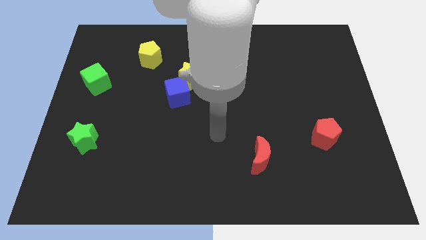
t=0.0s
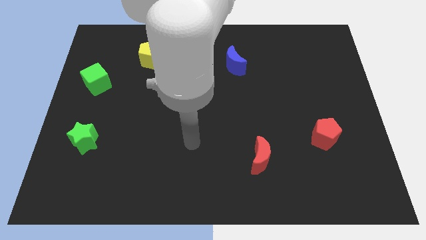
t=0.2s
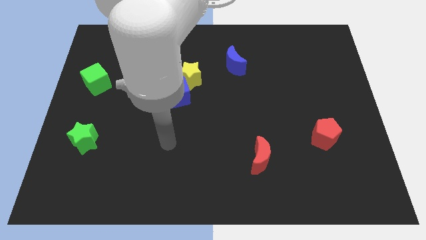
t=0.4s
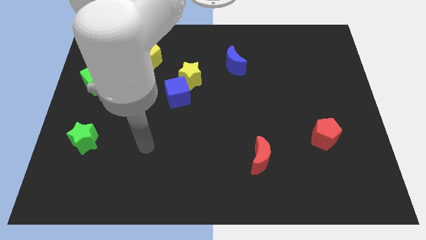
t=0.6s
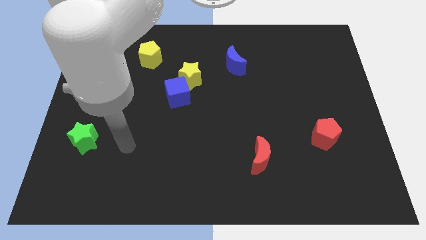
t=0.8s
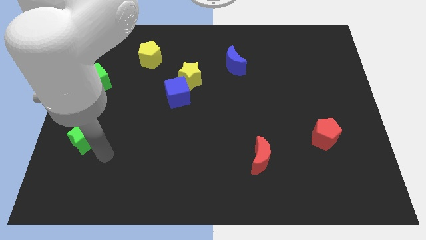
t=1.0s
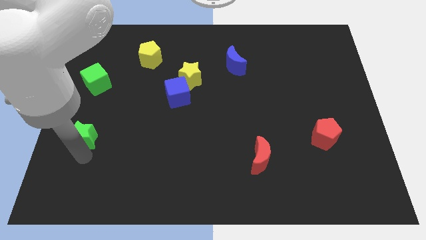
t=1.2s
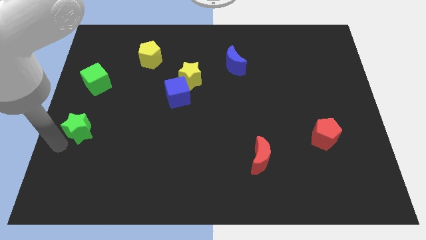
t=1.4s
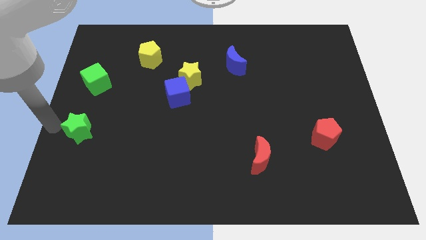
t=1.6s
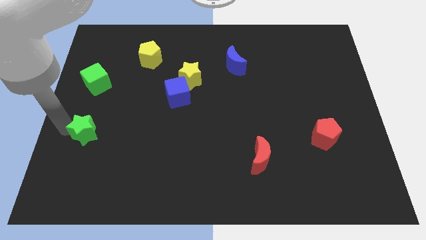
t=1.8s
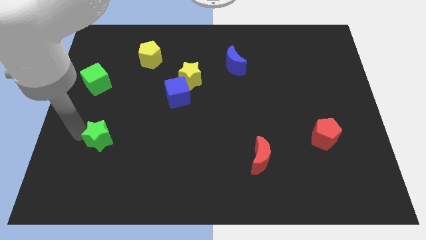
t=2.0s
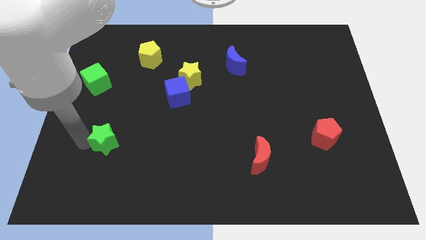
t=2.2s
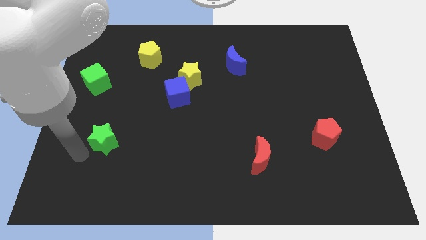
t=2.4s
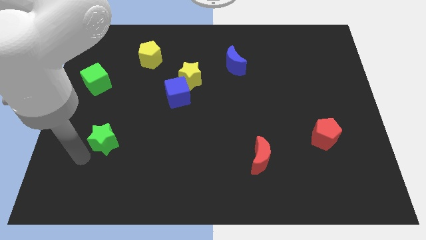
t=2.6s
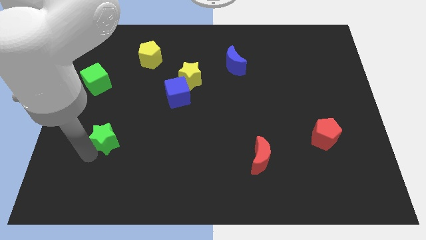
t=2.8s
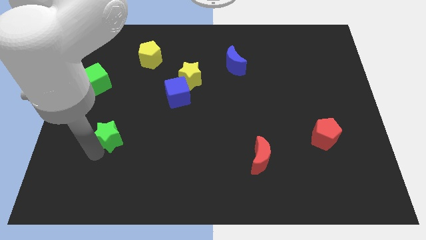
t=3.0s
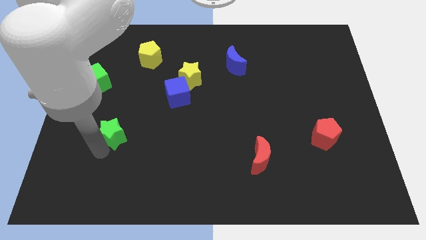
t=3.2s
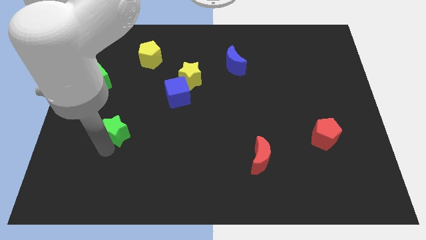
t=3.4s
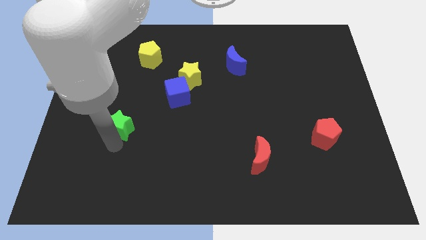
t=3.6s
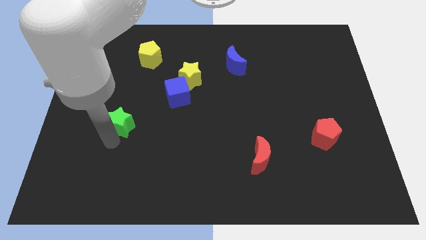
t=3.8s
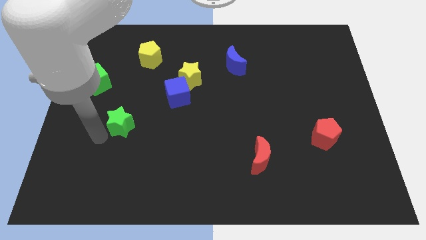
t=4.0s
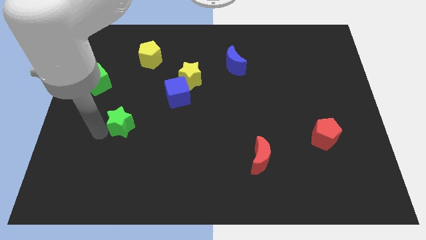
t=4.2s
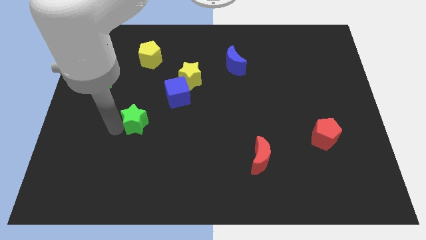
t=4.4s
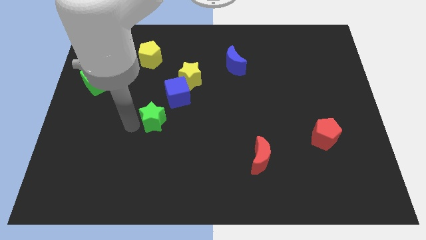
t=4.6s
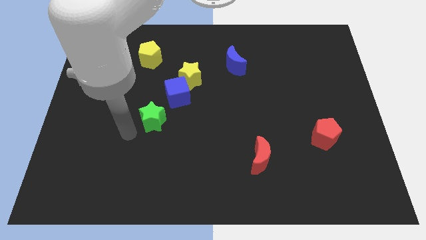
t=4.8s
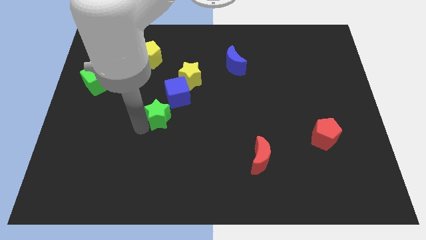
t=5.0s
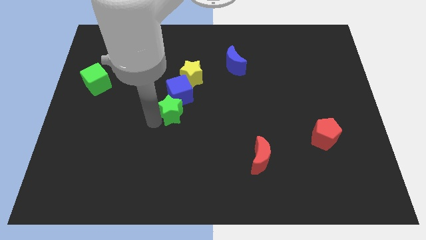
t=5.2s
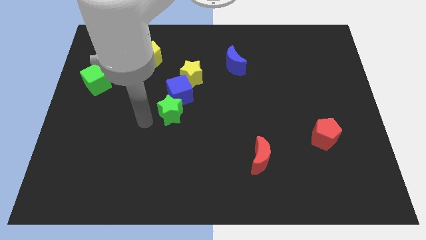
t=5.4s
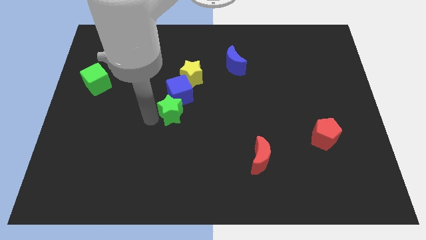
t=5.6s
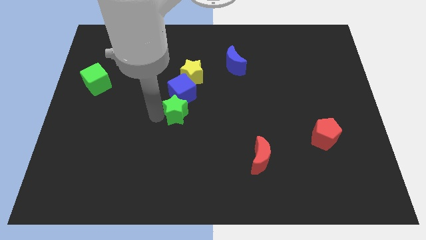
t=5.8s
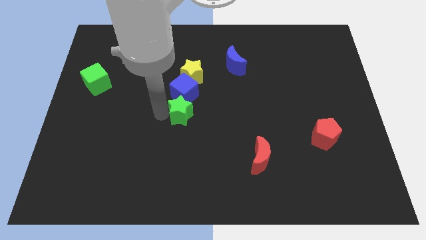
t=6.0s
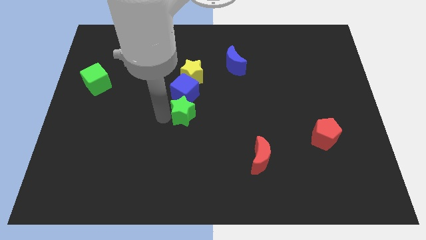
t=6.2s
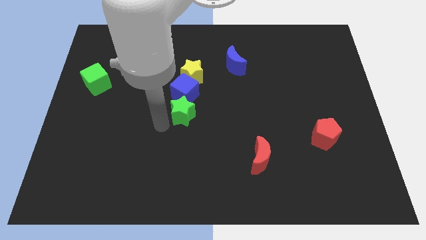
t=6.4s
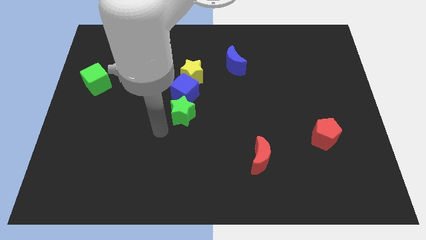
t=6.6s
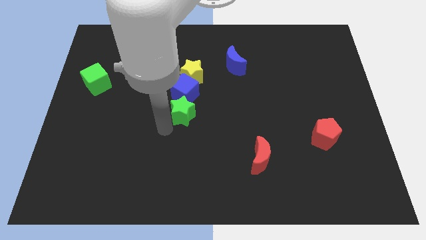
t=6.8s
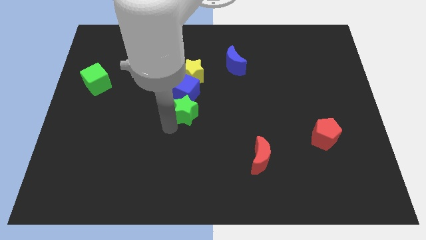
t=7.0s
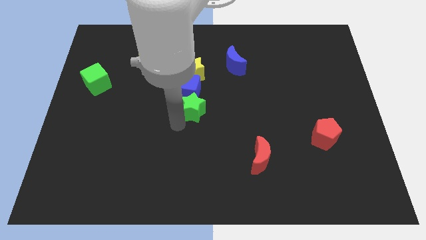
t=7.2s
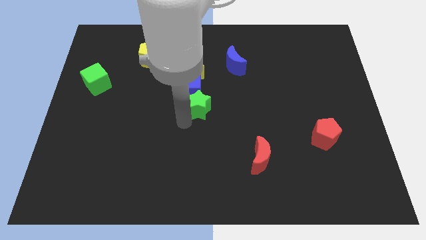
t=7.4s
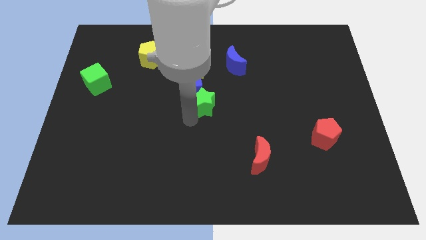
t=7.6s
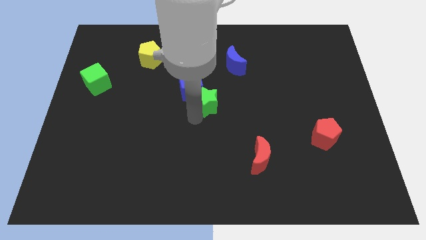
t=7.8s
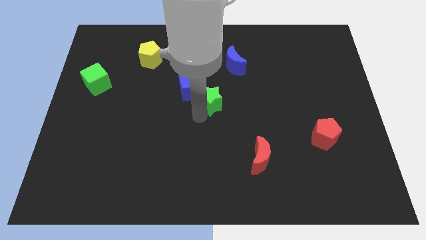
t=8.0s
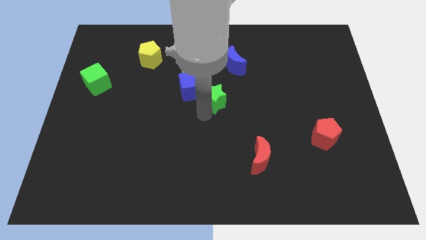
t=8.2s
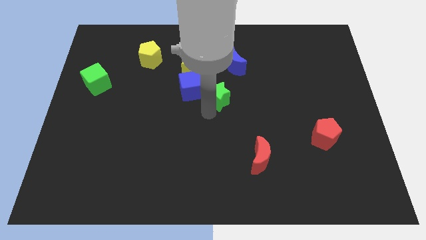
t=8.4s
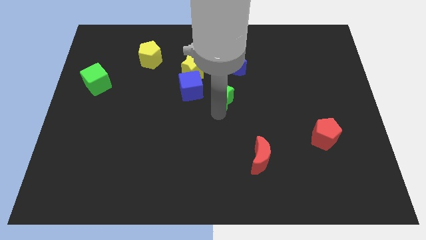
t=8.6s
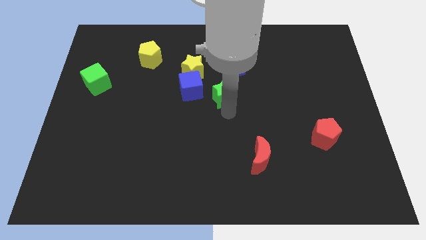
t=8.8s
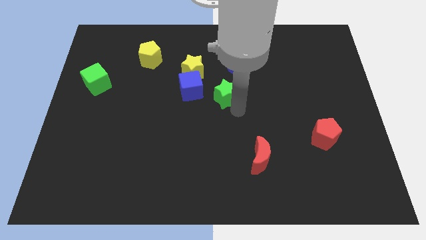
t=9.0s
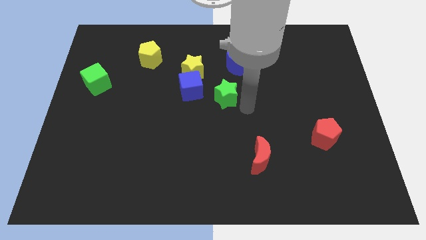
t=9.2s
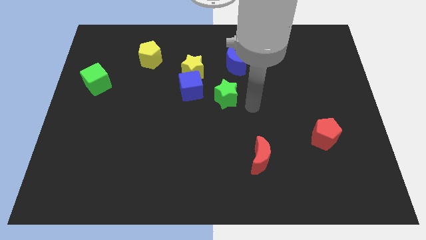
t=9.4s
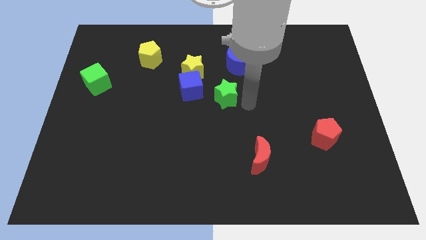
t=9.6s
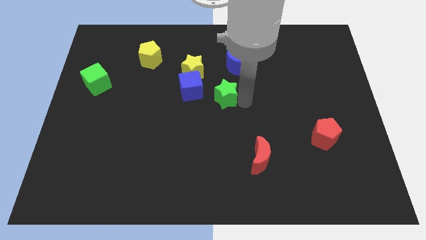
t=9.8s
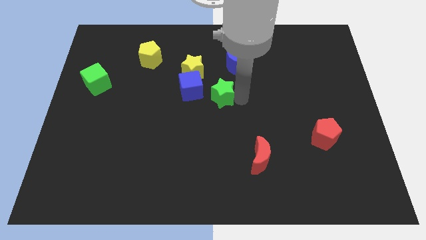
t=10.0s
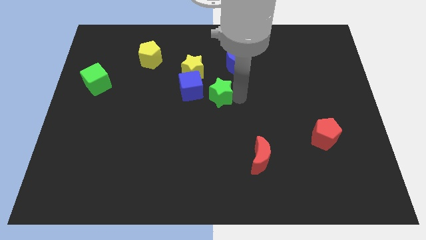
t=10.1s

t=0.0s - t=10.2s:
slide the green star diagonally down and to the left of the blue moon
